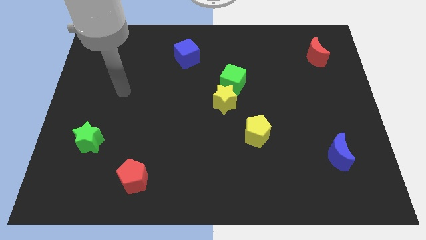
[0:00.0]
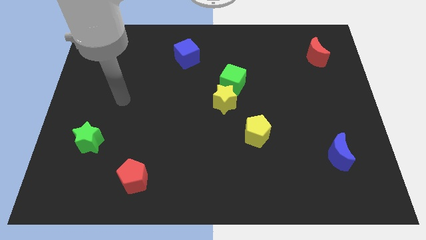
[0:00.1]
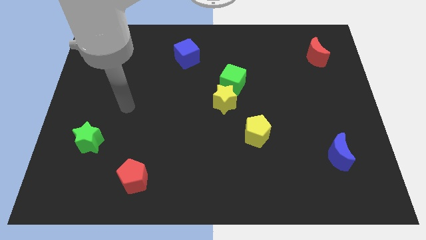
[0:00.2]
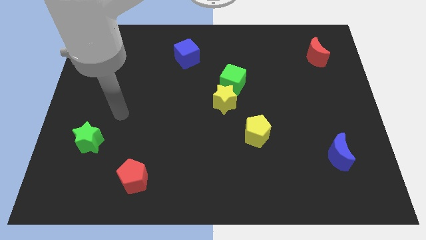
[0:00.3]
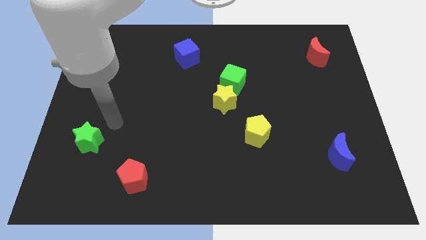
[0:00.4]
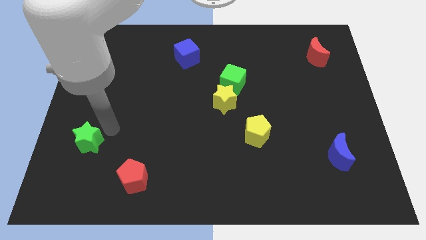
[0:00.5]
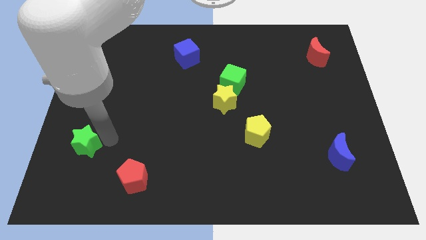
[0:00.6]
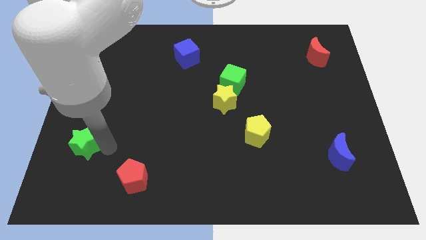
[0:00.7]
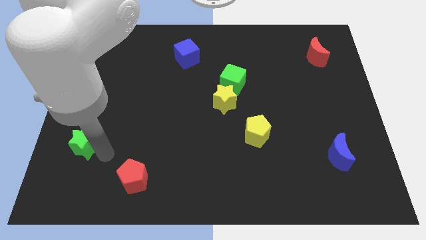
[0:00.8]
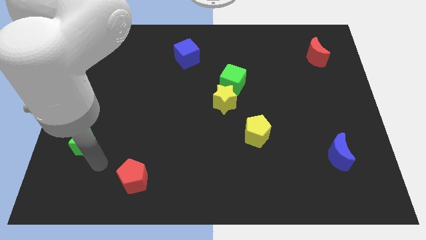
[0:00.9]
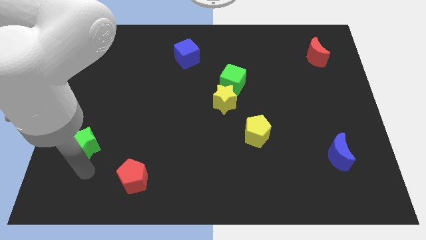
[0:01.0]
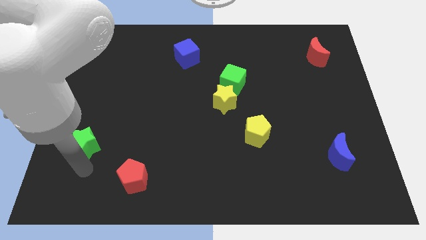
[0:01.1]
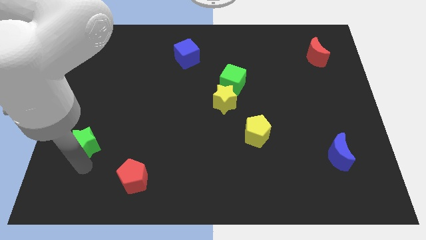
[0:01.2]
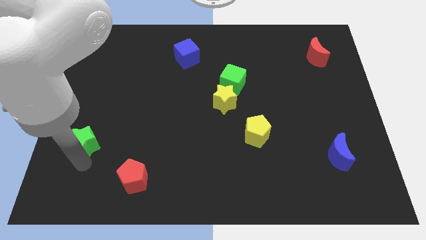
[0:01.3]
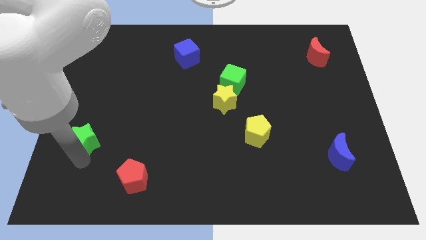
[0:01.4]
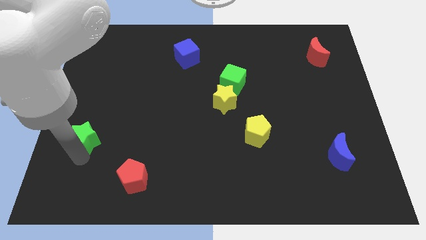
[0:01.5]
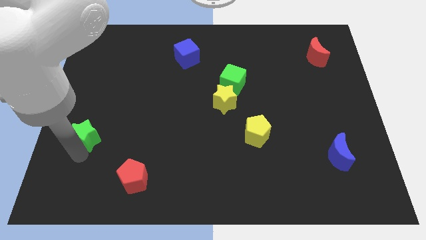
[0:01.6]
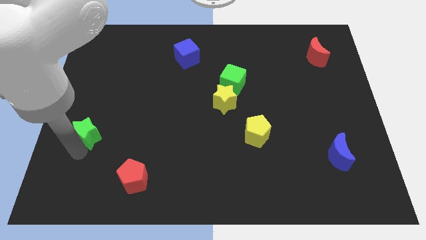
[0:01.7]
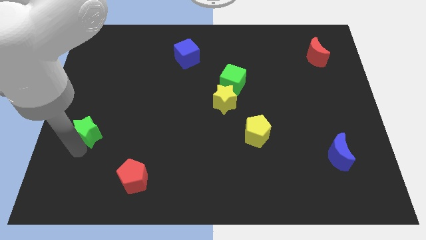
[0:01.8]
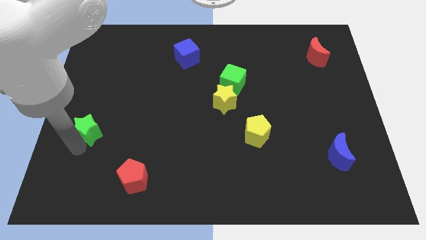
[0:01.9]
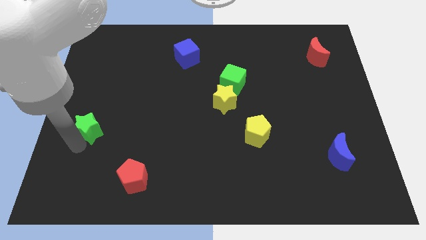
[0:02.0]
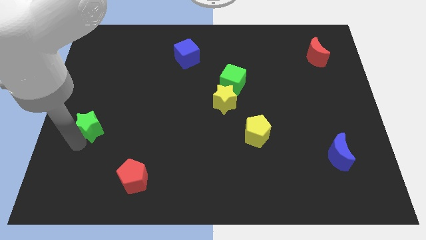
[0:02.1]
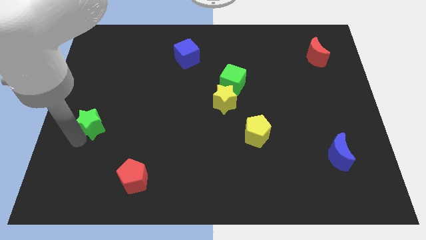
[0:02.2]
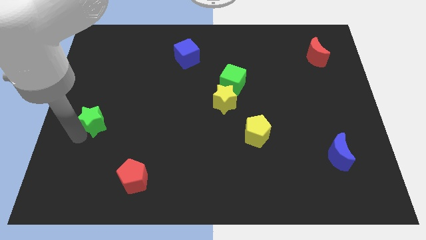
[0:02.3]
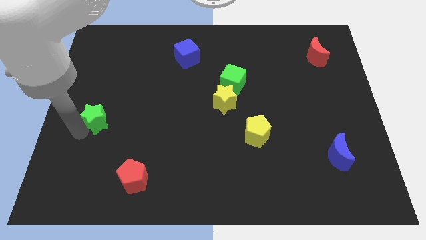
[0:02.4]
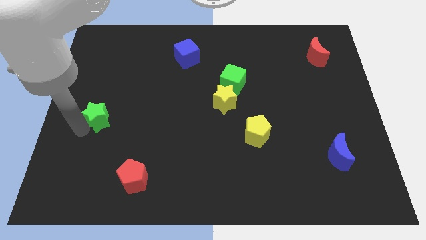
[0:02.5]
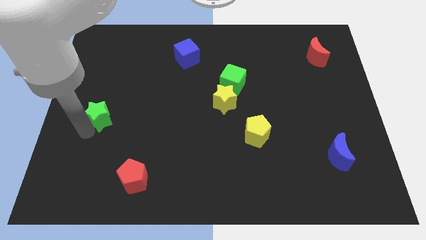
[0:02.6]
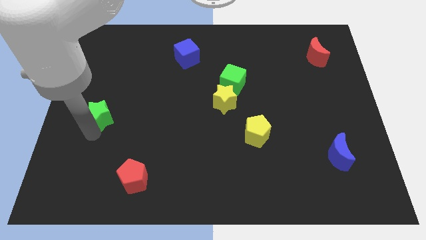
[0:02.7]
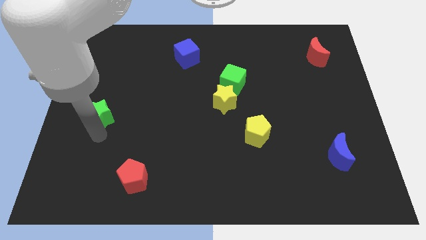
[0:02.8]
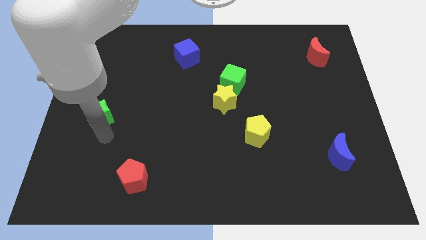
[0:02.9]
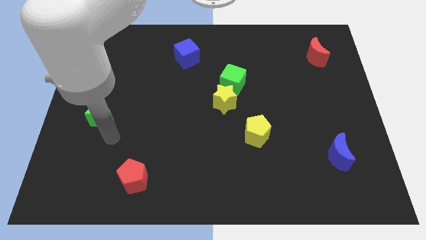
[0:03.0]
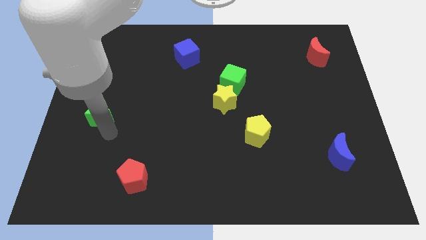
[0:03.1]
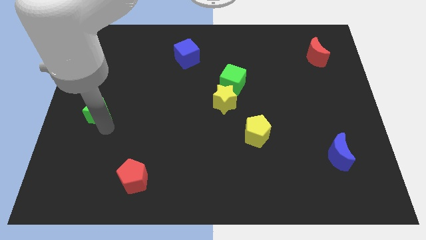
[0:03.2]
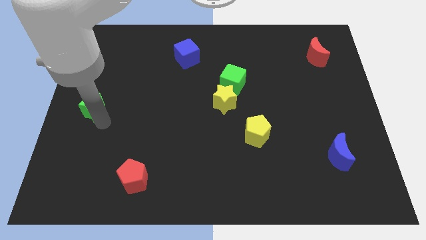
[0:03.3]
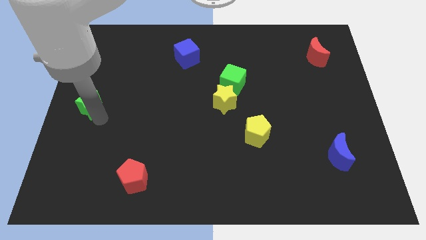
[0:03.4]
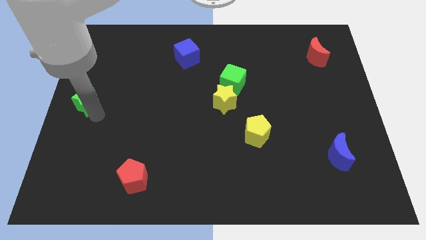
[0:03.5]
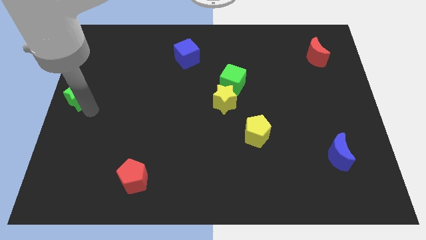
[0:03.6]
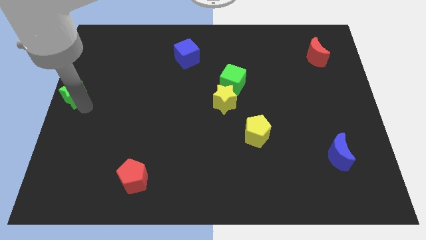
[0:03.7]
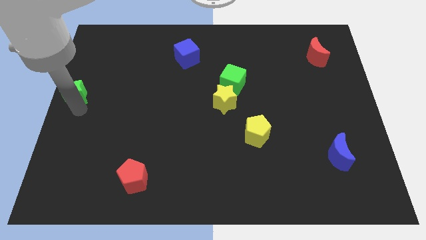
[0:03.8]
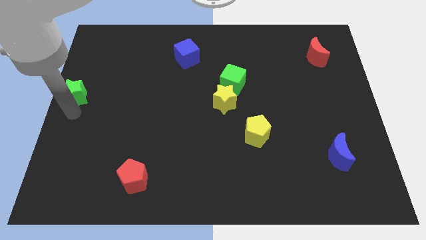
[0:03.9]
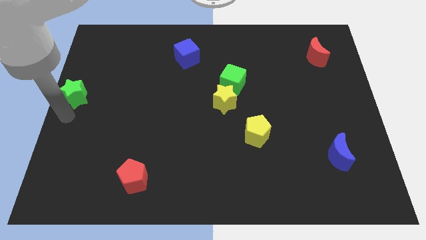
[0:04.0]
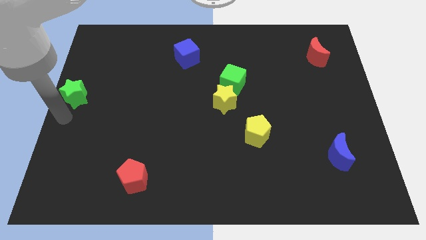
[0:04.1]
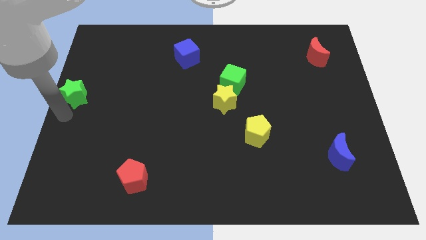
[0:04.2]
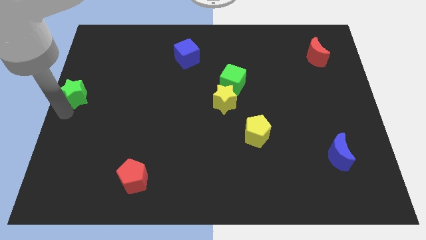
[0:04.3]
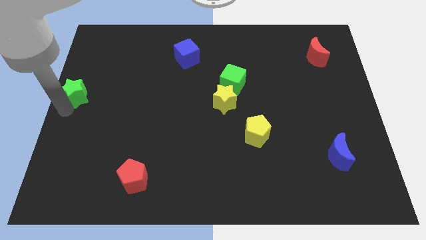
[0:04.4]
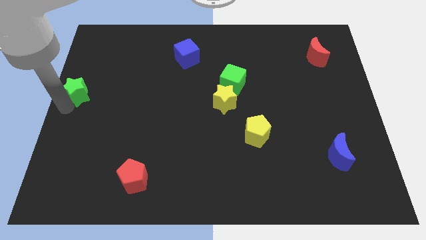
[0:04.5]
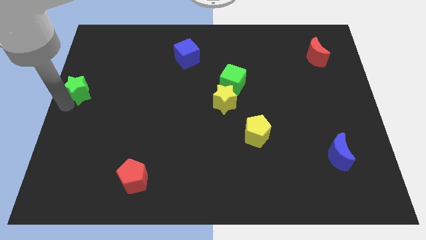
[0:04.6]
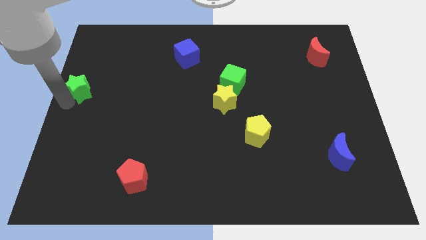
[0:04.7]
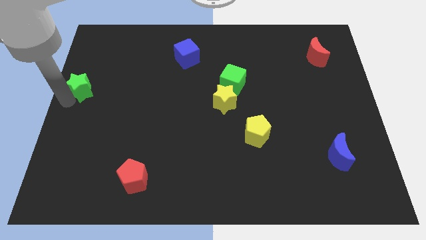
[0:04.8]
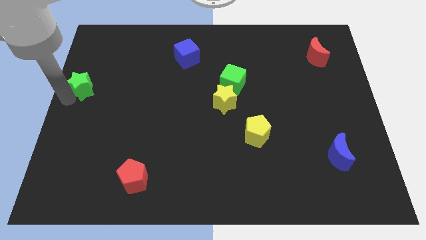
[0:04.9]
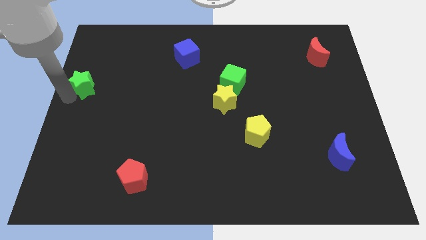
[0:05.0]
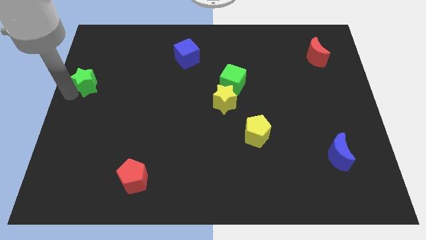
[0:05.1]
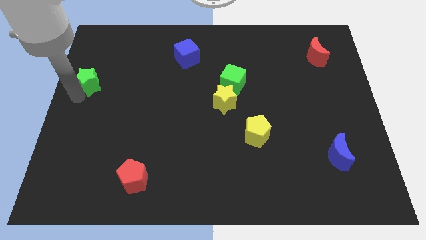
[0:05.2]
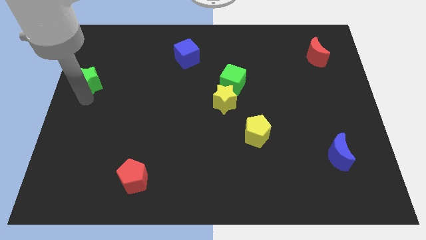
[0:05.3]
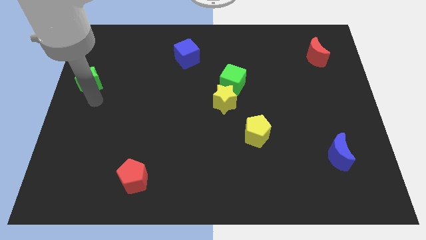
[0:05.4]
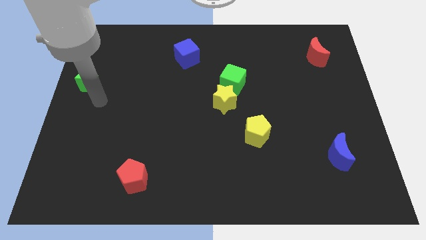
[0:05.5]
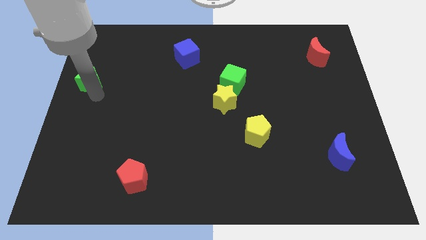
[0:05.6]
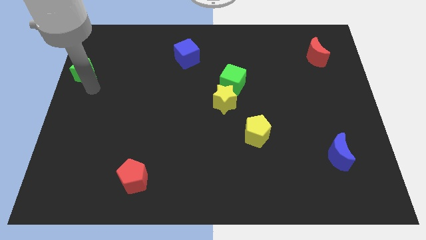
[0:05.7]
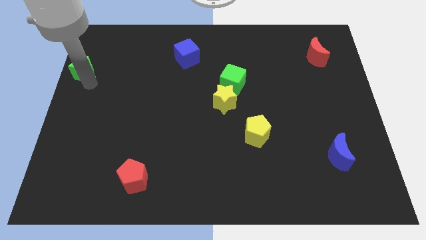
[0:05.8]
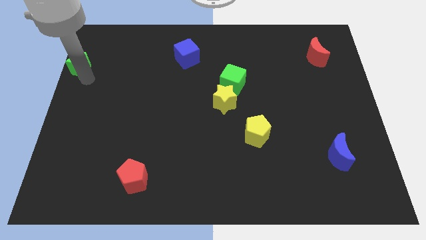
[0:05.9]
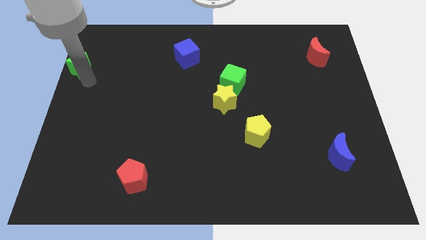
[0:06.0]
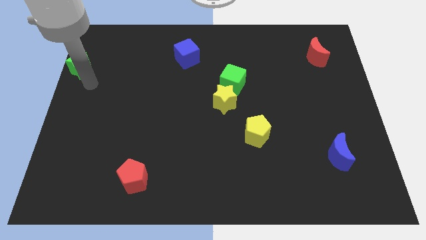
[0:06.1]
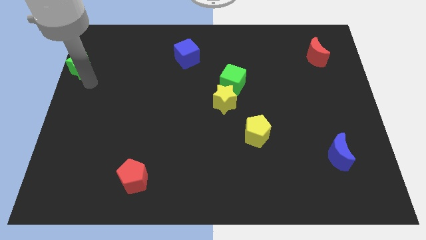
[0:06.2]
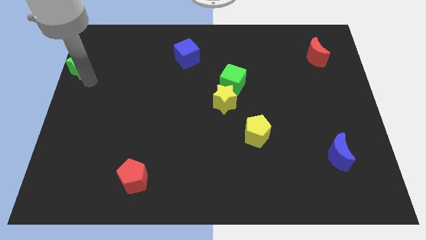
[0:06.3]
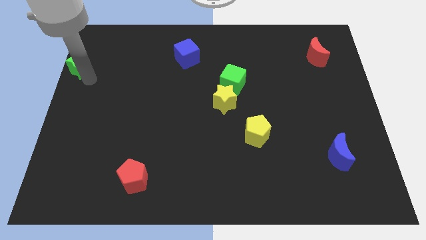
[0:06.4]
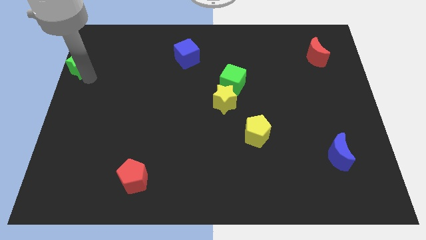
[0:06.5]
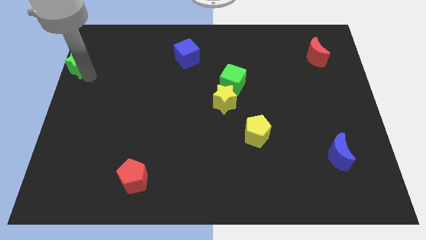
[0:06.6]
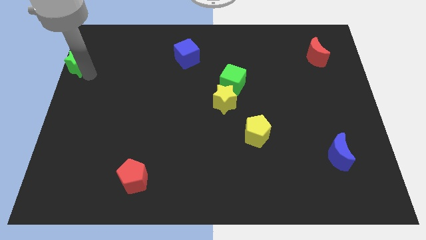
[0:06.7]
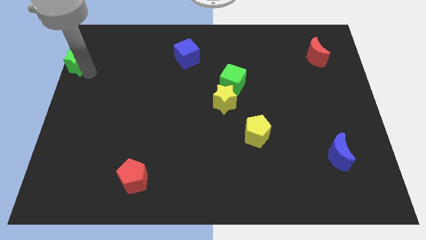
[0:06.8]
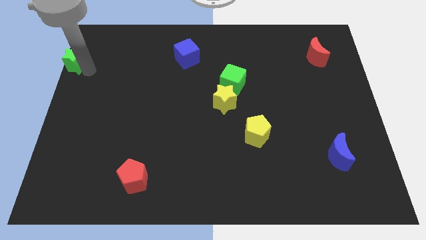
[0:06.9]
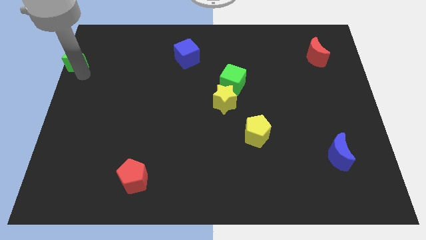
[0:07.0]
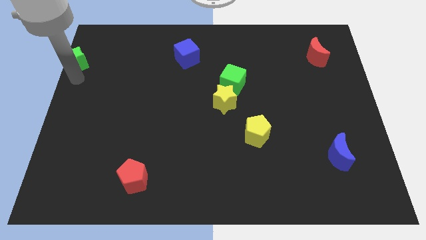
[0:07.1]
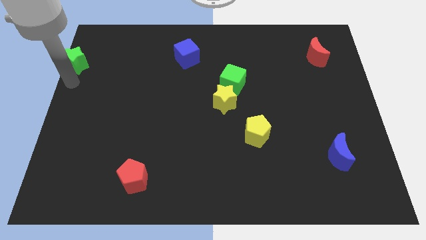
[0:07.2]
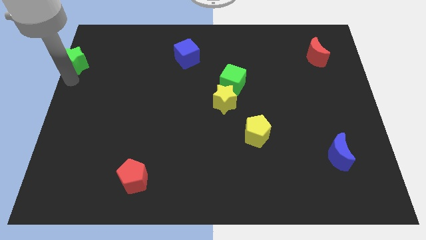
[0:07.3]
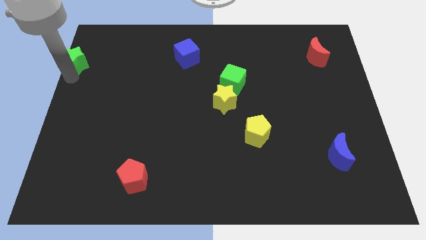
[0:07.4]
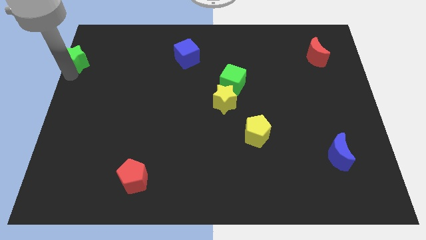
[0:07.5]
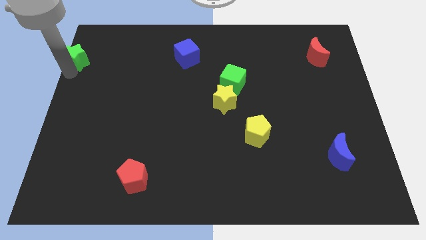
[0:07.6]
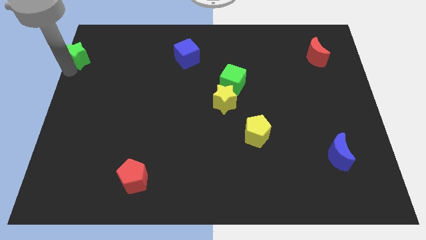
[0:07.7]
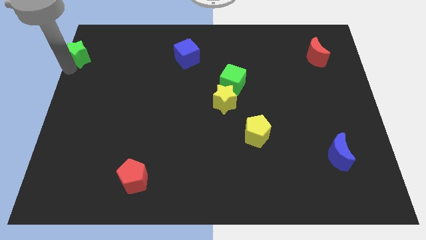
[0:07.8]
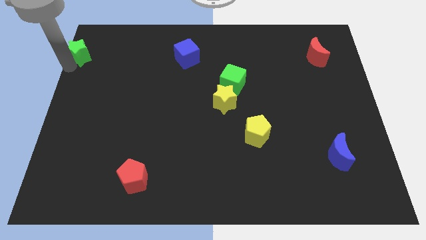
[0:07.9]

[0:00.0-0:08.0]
put the green star to the top left
